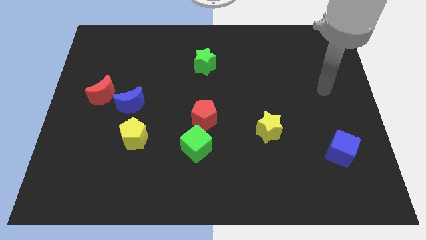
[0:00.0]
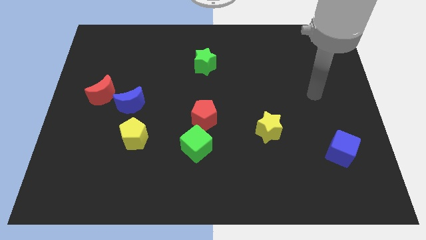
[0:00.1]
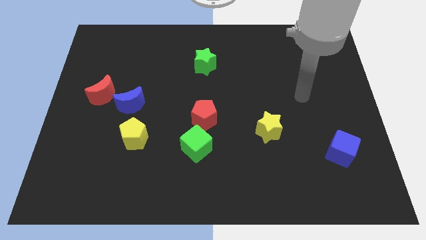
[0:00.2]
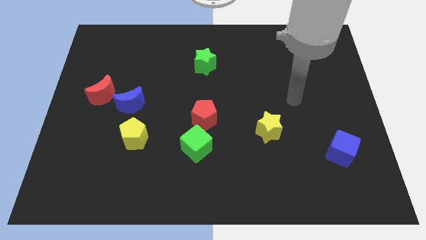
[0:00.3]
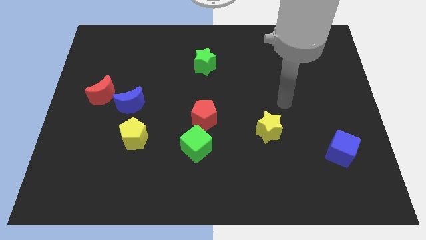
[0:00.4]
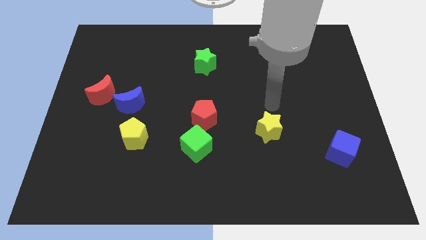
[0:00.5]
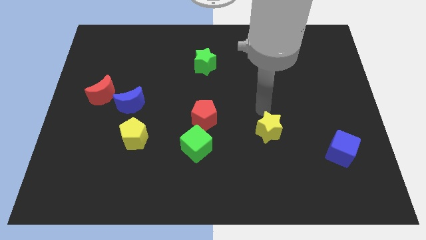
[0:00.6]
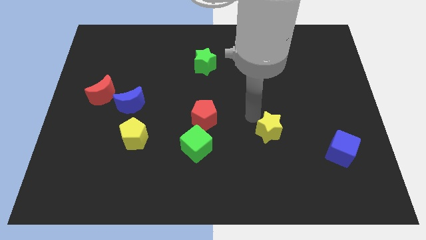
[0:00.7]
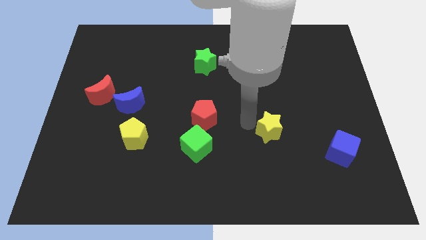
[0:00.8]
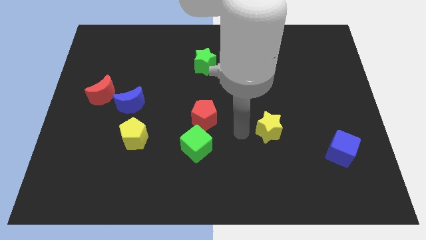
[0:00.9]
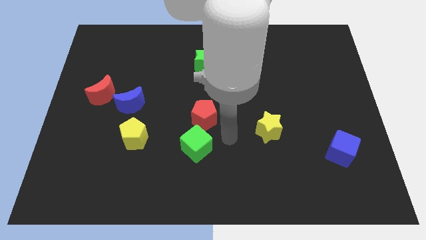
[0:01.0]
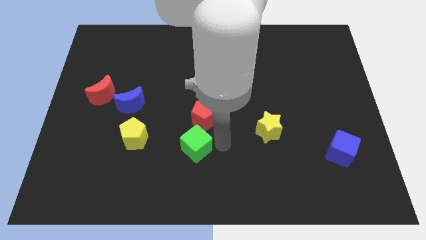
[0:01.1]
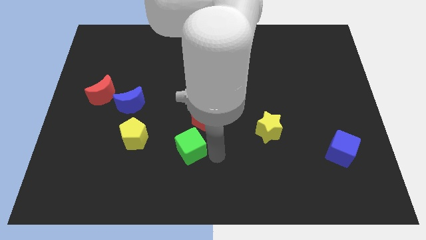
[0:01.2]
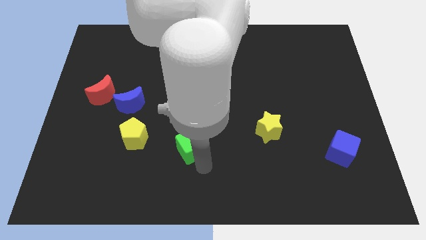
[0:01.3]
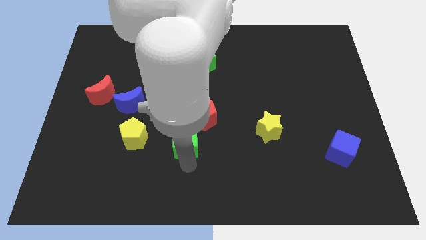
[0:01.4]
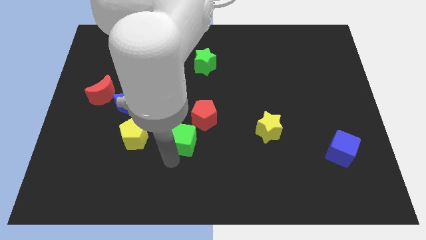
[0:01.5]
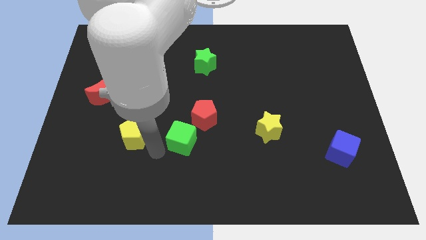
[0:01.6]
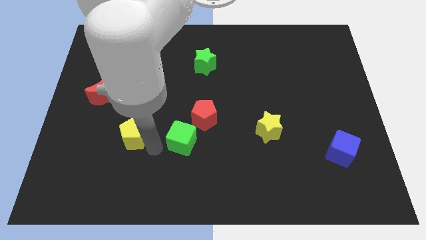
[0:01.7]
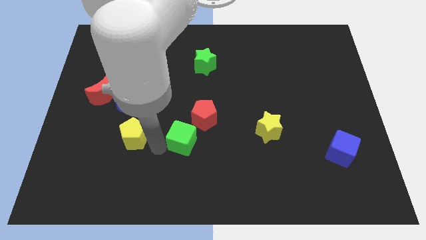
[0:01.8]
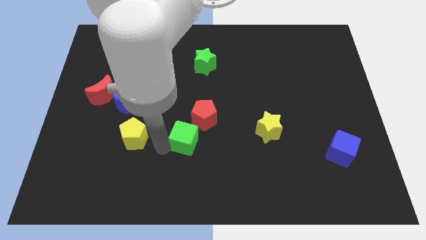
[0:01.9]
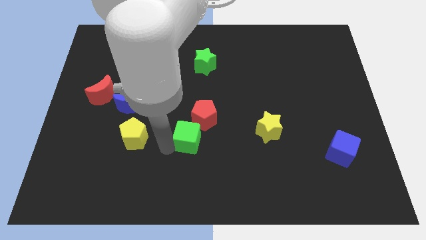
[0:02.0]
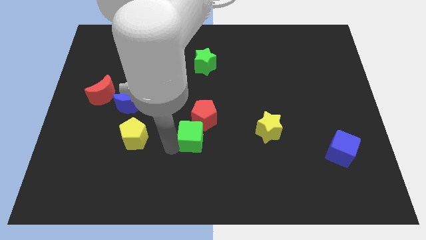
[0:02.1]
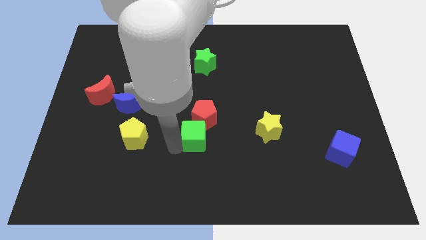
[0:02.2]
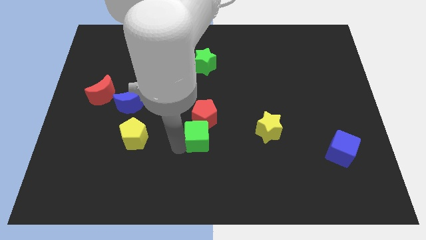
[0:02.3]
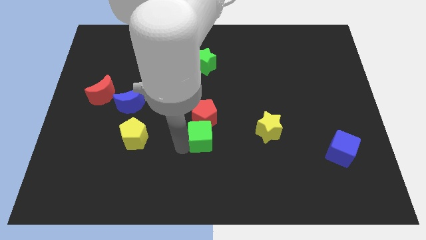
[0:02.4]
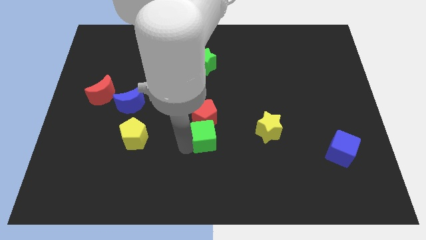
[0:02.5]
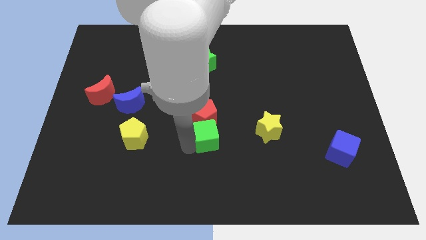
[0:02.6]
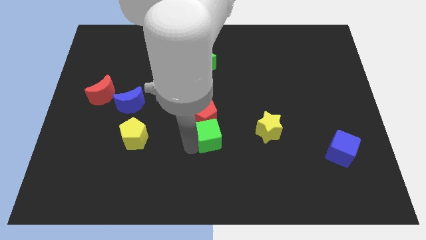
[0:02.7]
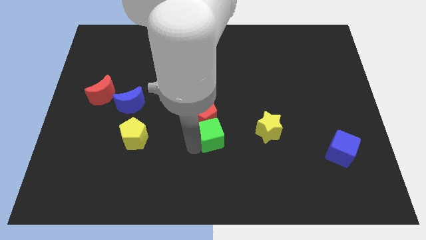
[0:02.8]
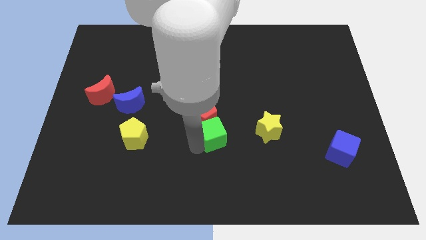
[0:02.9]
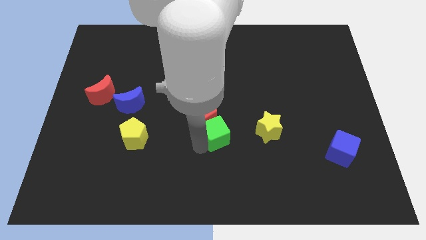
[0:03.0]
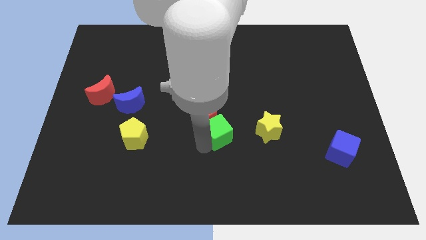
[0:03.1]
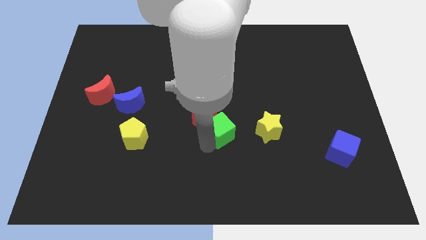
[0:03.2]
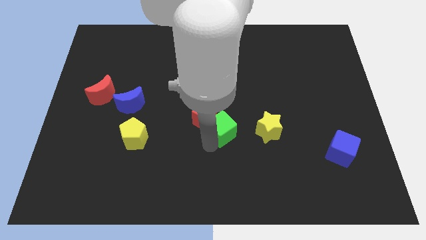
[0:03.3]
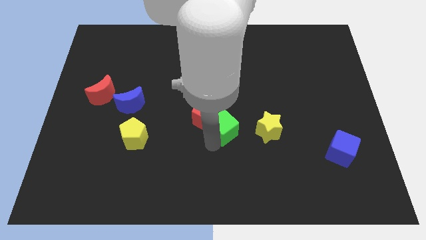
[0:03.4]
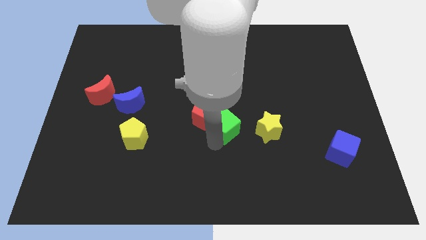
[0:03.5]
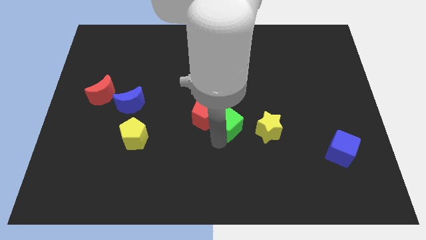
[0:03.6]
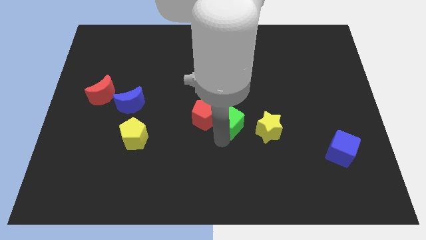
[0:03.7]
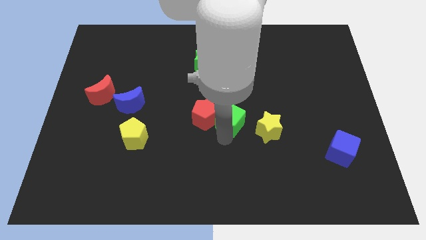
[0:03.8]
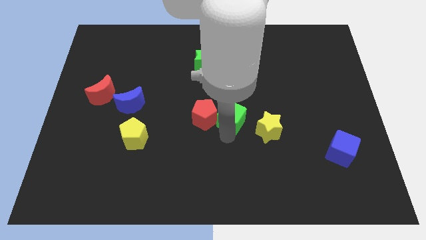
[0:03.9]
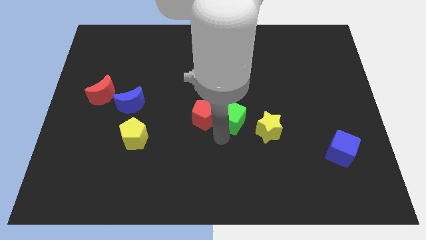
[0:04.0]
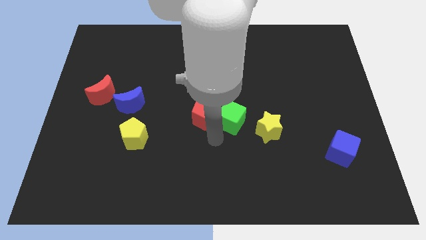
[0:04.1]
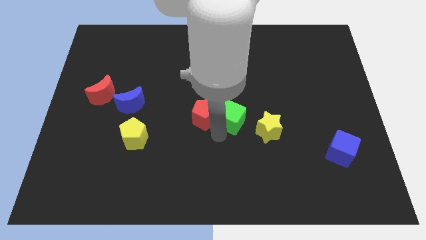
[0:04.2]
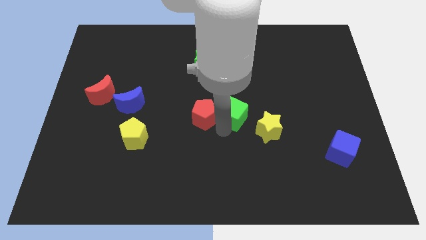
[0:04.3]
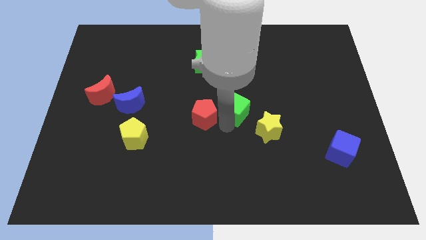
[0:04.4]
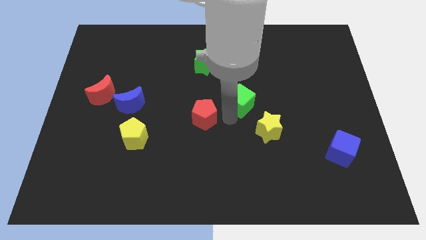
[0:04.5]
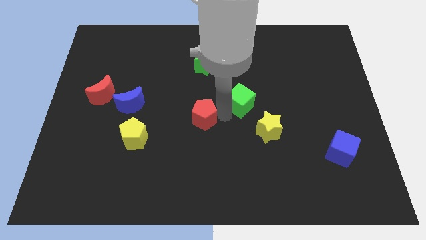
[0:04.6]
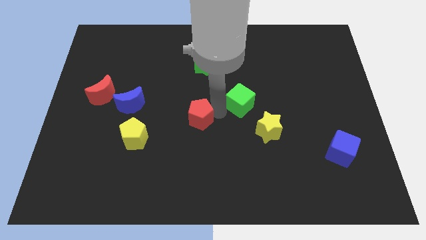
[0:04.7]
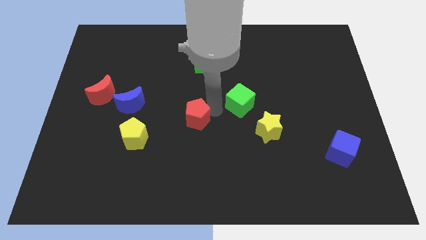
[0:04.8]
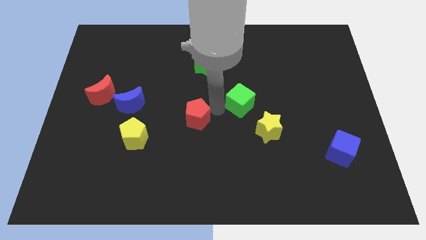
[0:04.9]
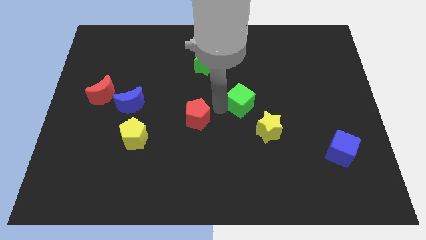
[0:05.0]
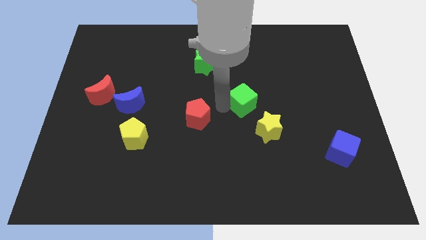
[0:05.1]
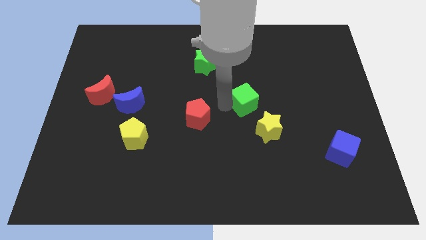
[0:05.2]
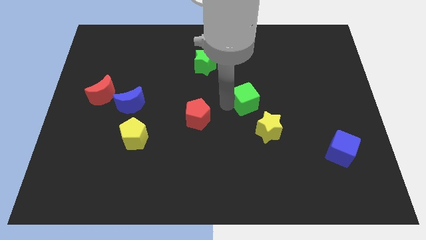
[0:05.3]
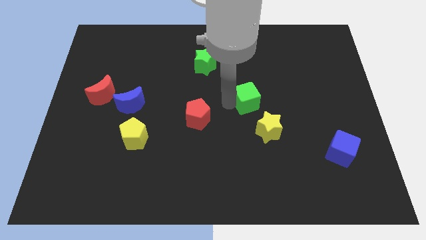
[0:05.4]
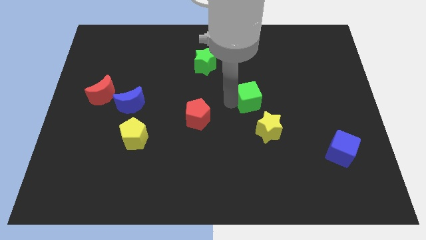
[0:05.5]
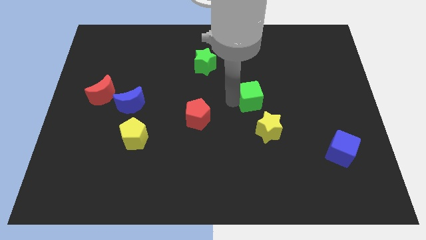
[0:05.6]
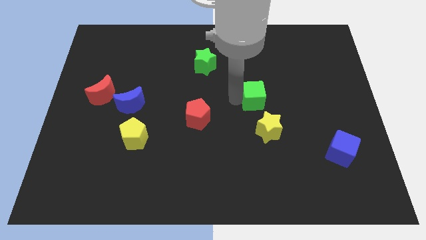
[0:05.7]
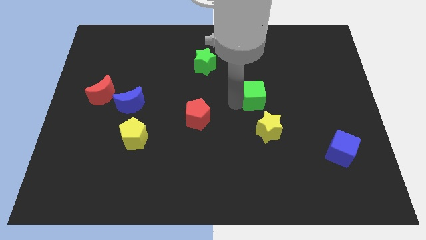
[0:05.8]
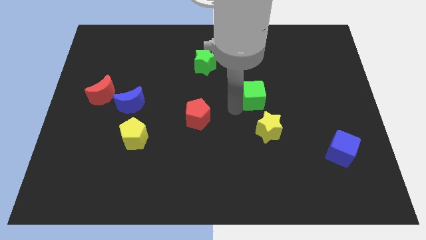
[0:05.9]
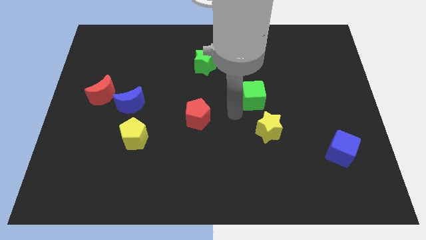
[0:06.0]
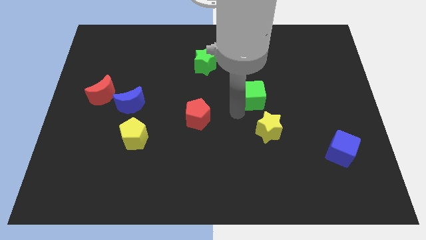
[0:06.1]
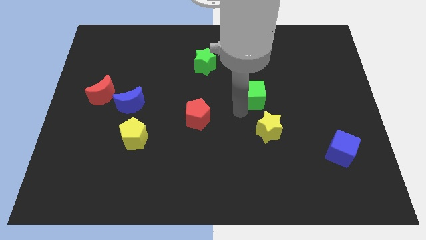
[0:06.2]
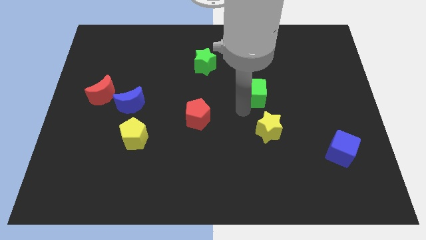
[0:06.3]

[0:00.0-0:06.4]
push the green cube upwards and then to the right

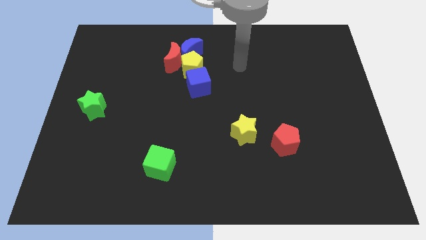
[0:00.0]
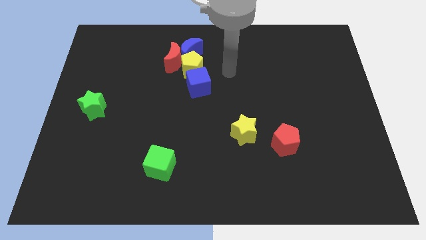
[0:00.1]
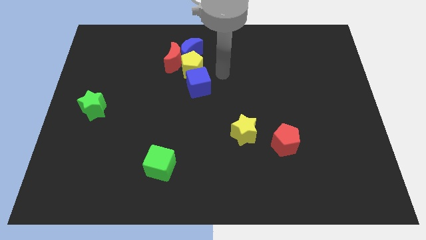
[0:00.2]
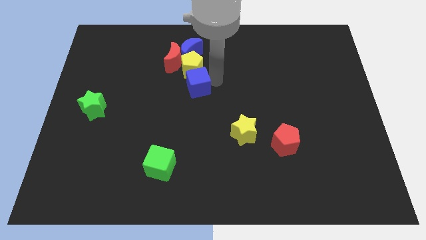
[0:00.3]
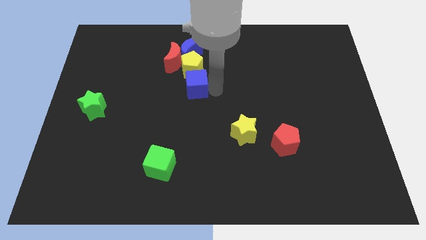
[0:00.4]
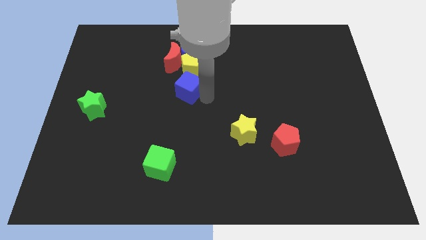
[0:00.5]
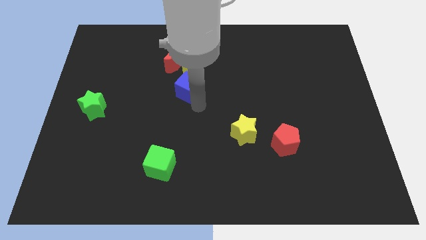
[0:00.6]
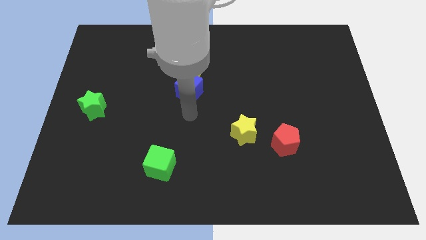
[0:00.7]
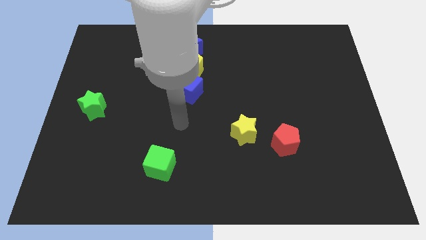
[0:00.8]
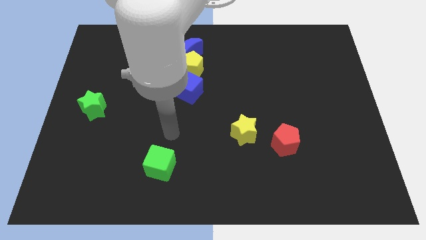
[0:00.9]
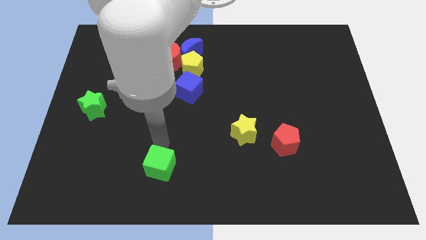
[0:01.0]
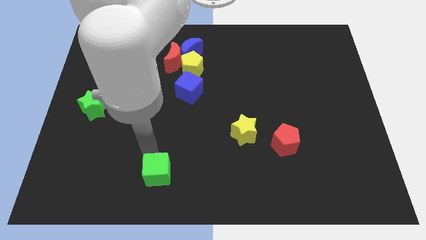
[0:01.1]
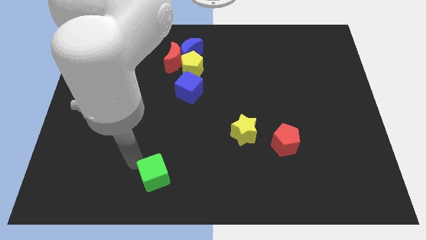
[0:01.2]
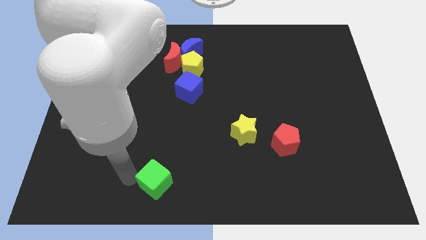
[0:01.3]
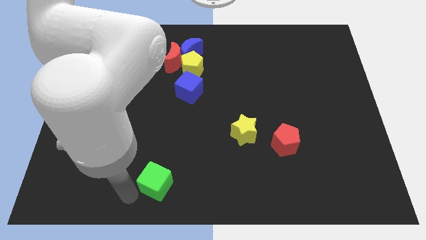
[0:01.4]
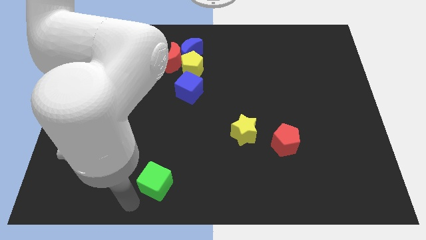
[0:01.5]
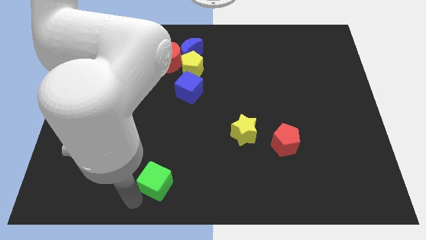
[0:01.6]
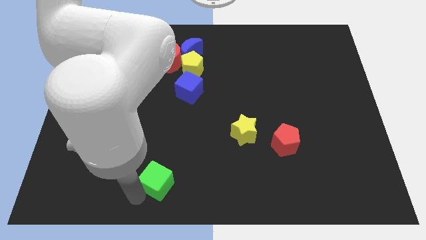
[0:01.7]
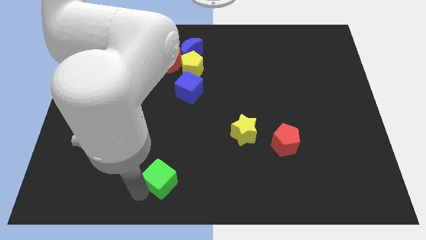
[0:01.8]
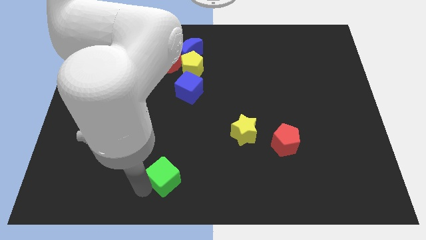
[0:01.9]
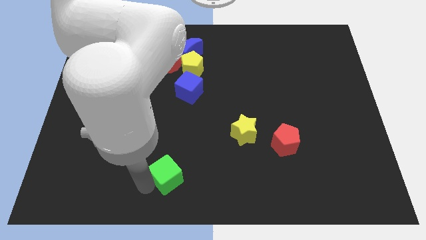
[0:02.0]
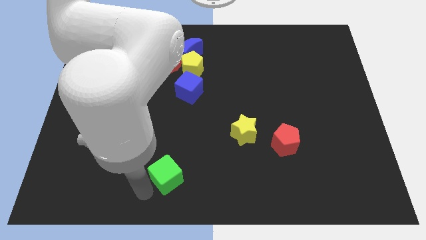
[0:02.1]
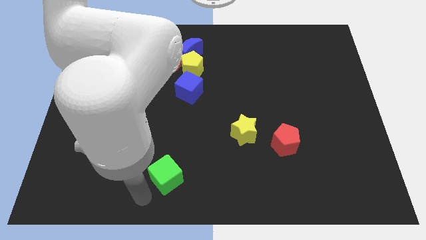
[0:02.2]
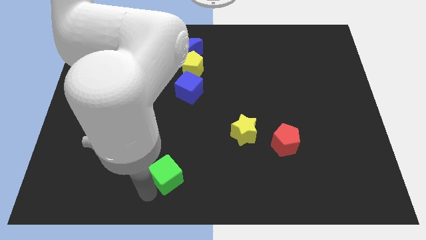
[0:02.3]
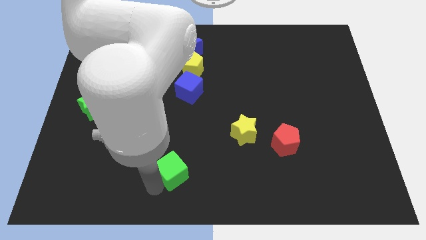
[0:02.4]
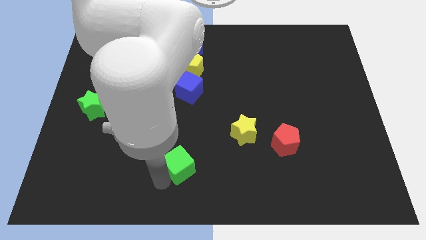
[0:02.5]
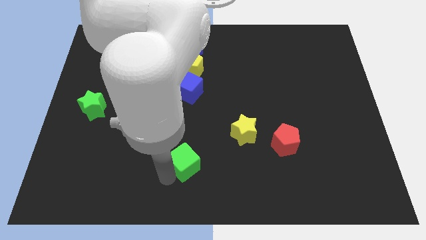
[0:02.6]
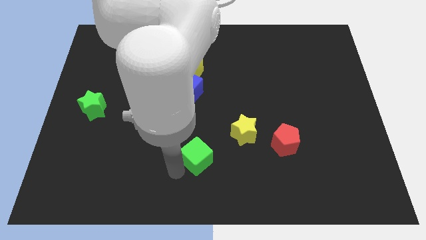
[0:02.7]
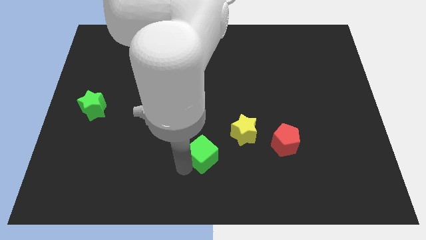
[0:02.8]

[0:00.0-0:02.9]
push the green cube up and to the right diagonally a bit
